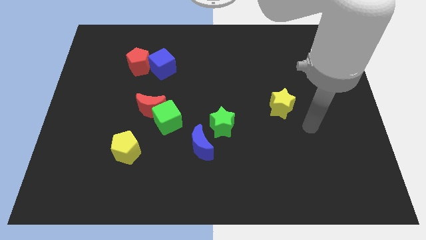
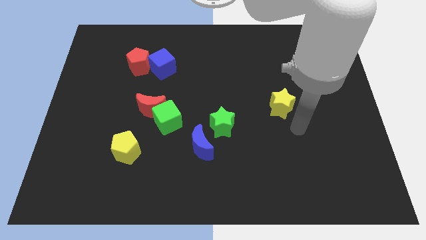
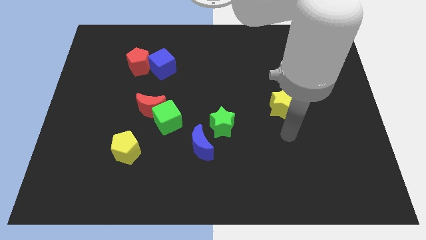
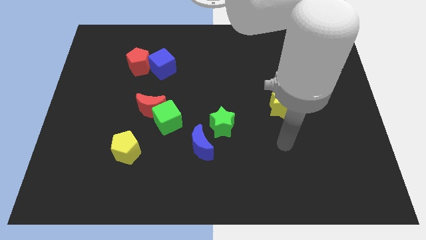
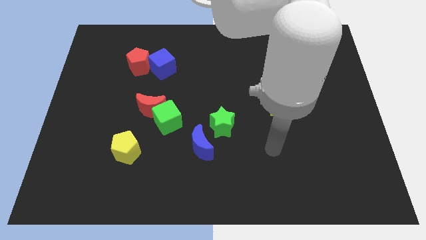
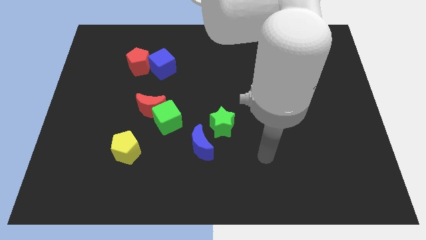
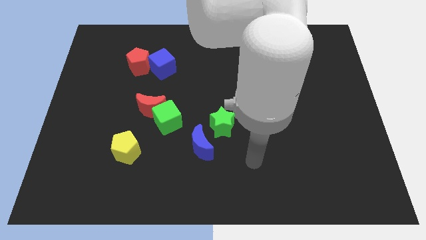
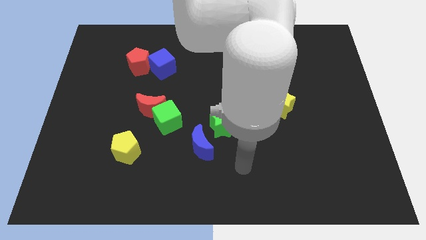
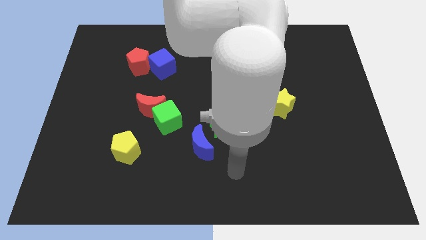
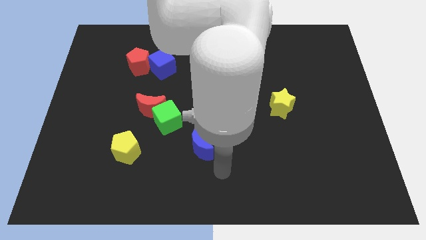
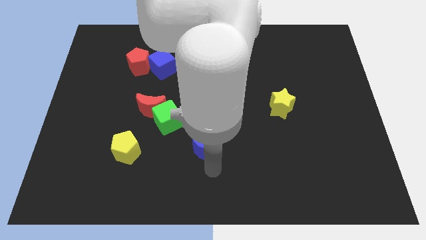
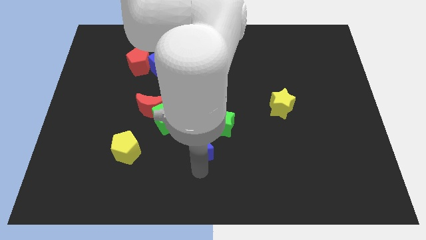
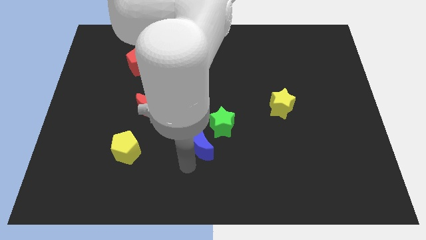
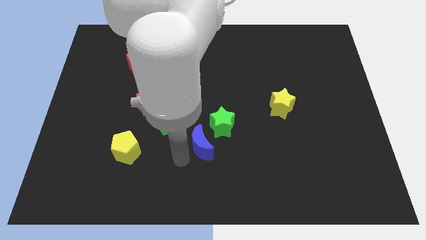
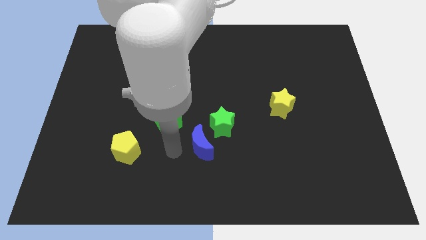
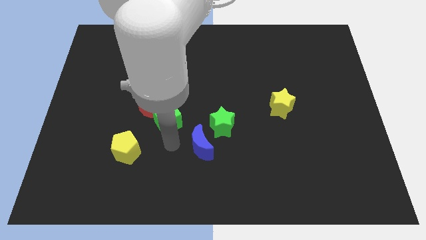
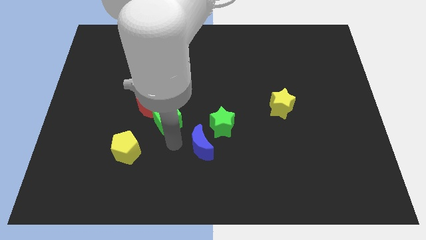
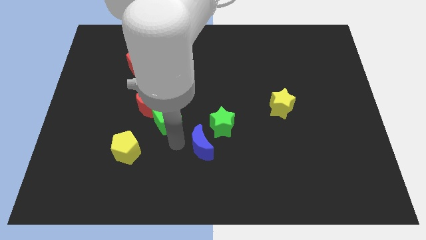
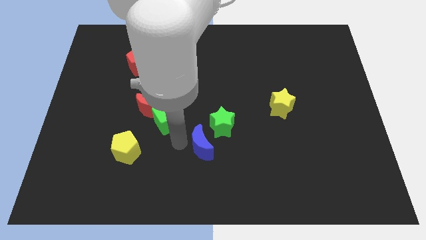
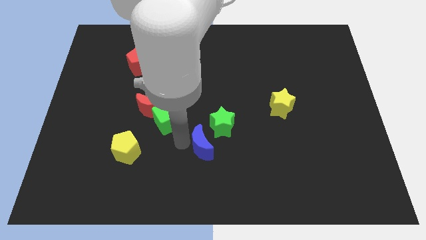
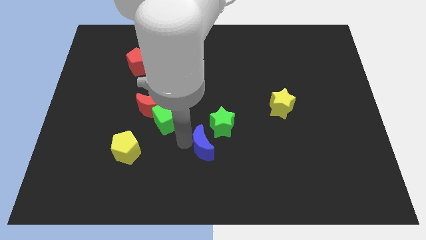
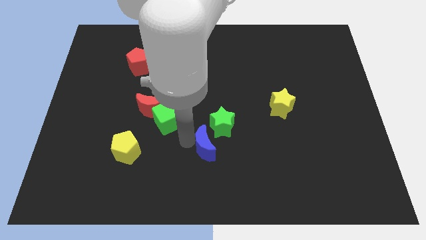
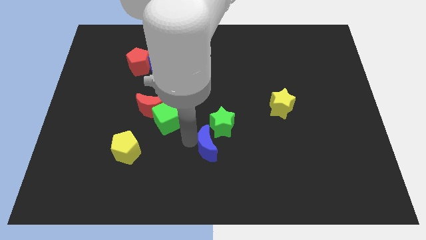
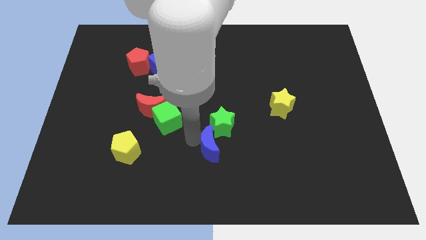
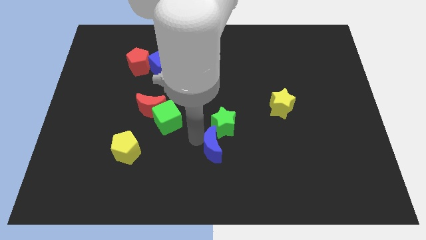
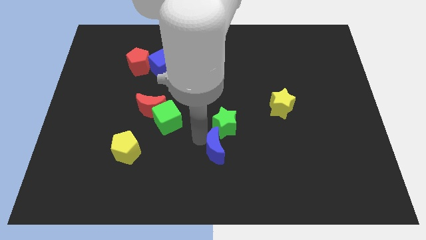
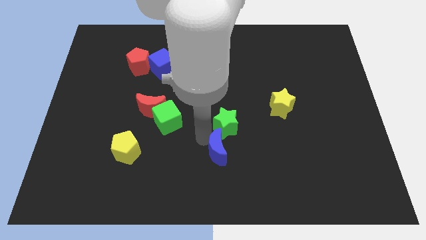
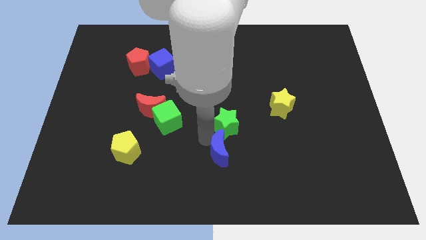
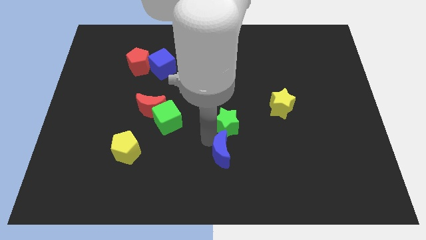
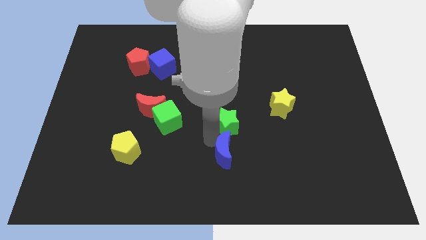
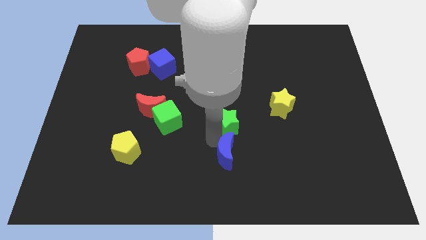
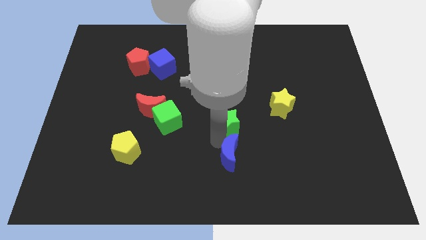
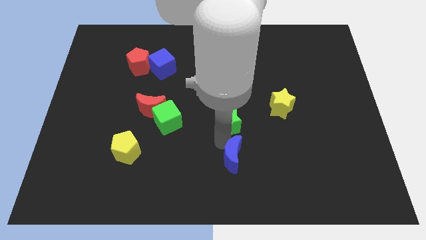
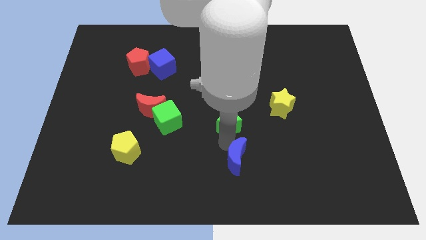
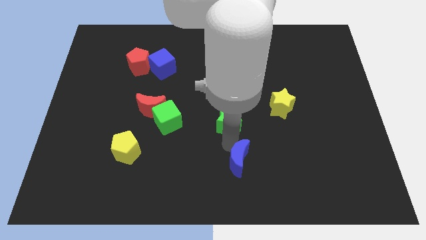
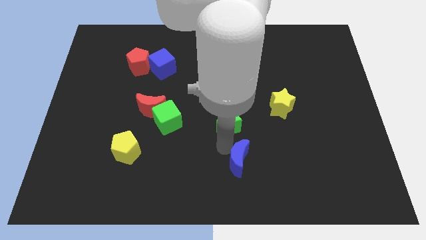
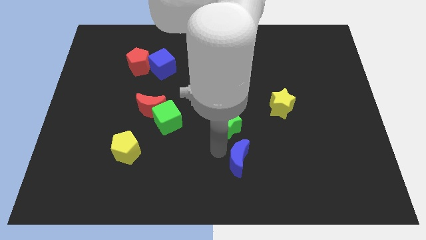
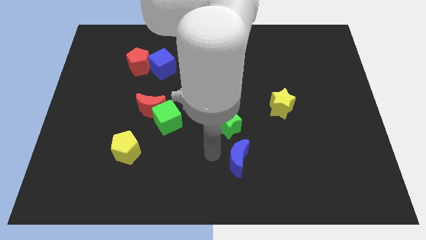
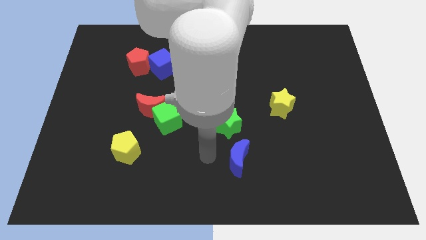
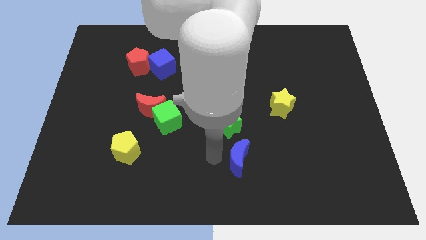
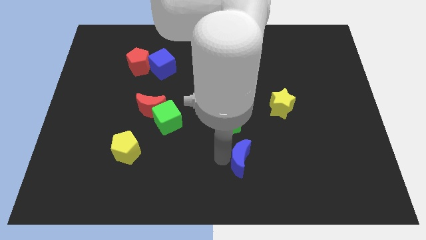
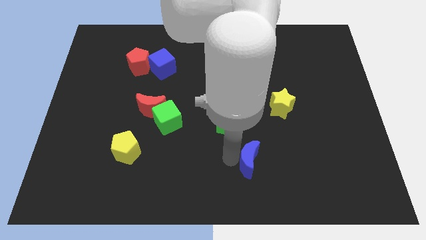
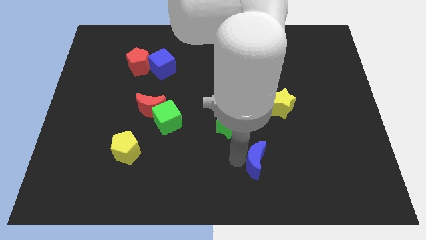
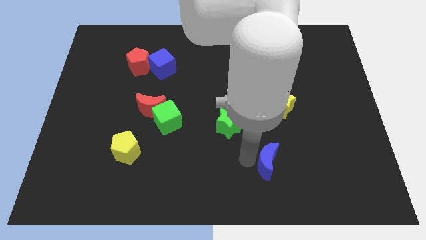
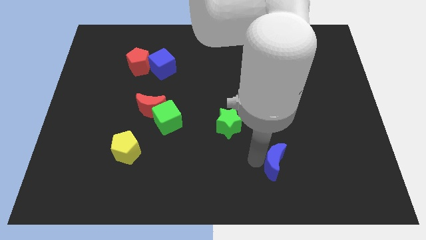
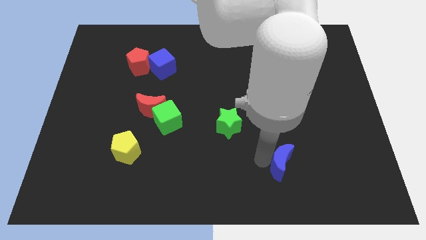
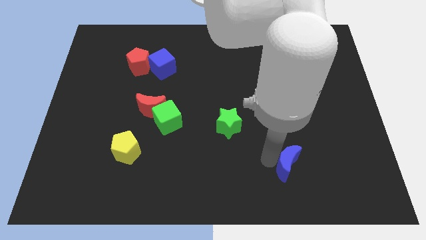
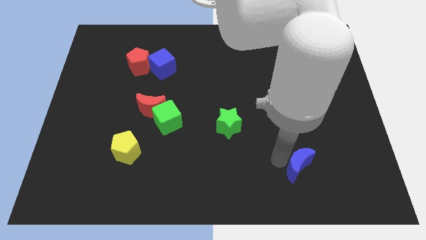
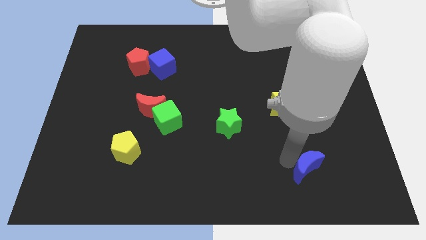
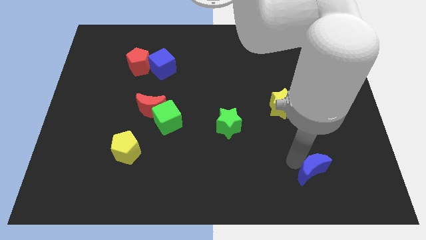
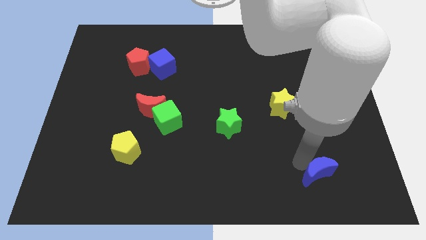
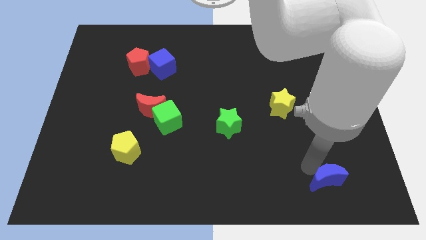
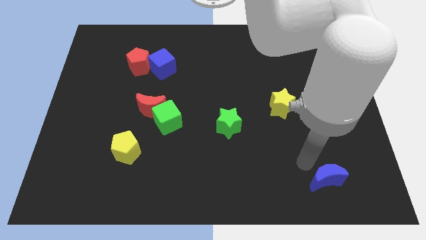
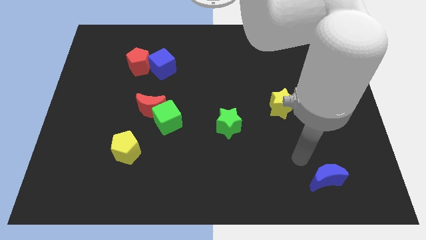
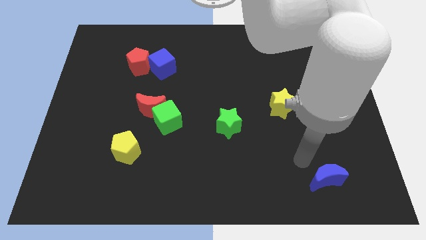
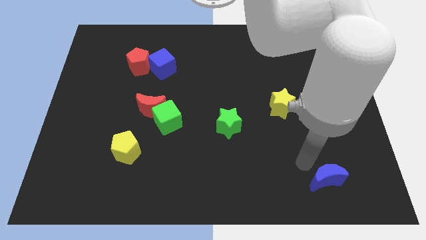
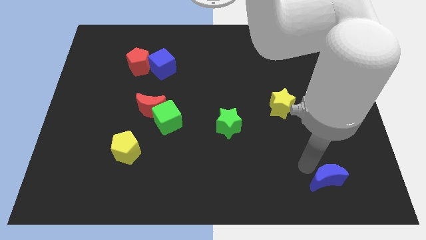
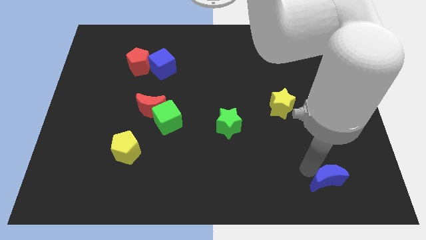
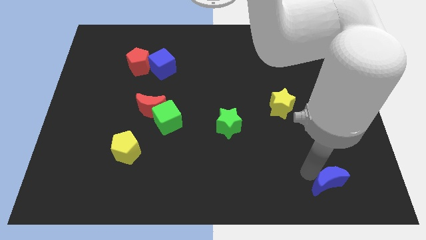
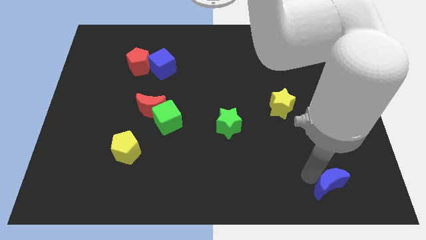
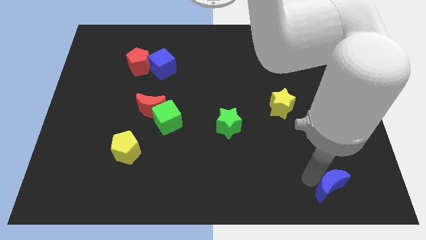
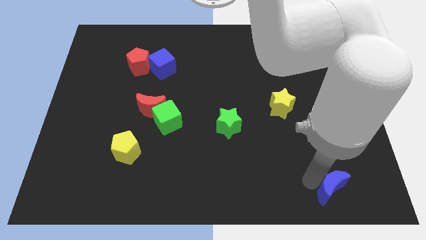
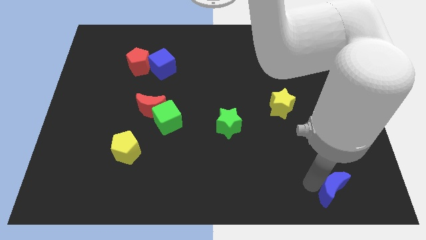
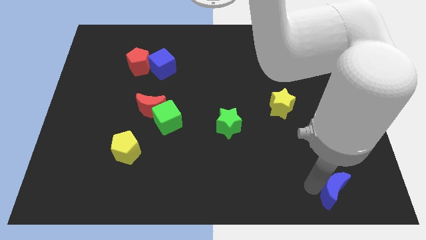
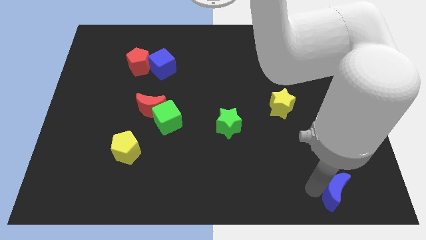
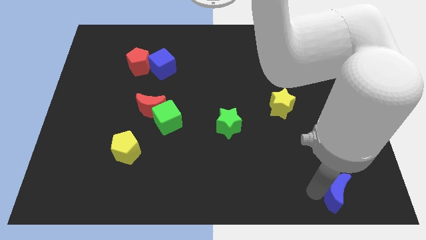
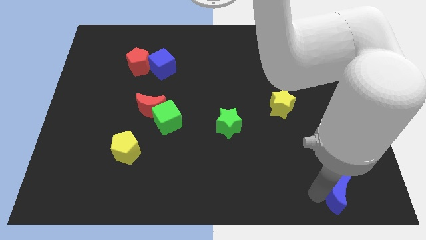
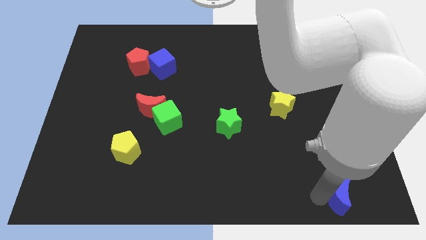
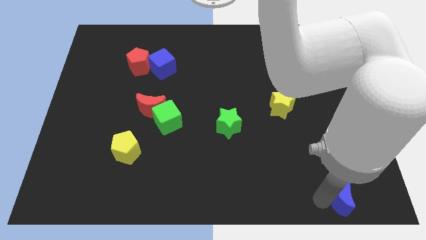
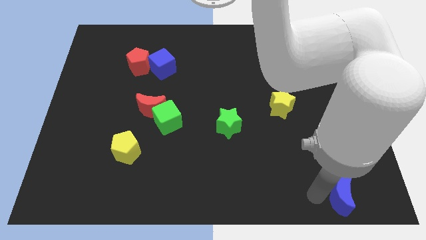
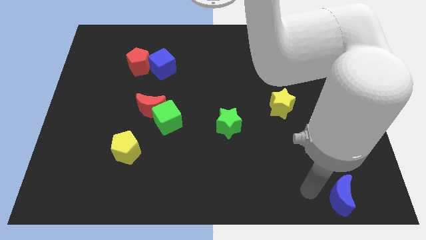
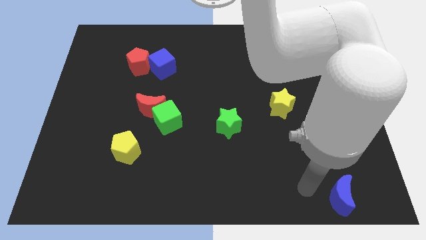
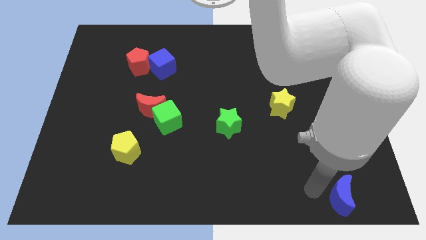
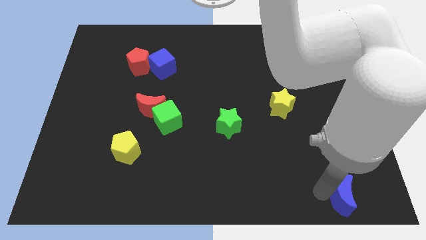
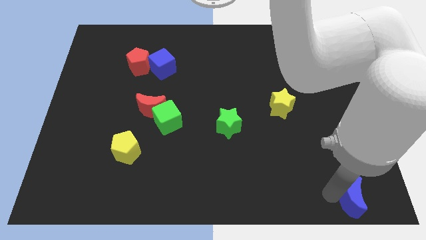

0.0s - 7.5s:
move the blue moon to the bottom right of the board
